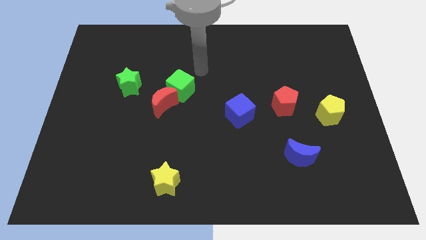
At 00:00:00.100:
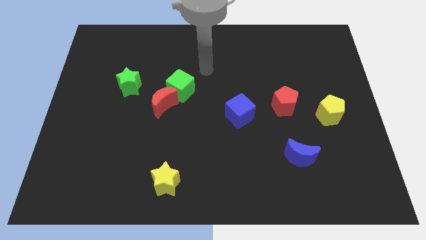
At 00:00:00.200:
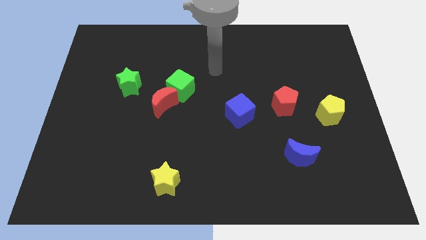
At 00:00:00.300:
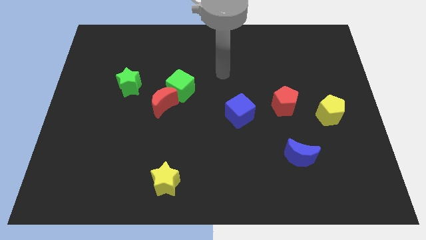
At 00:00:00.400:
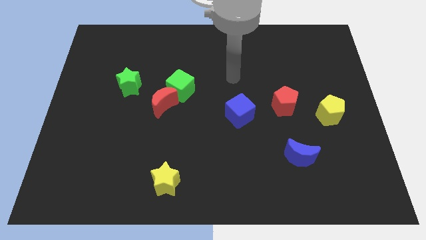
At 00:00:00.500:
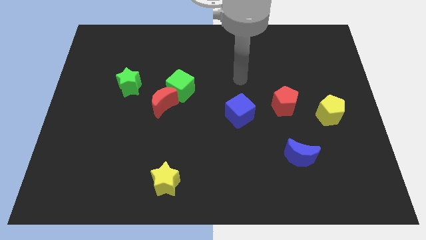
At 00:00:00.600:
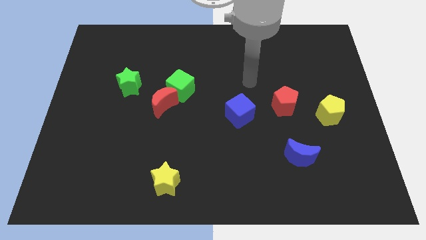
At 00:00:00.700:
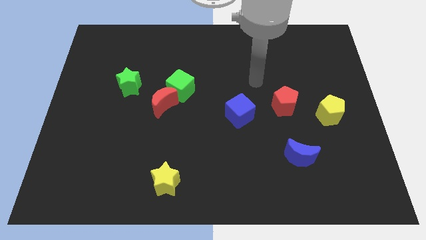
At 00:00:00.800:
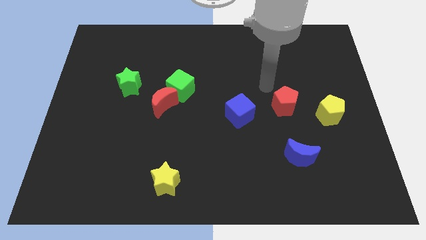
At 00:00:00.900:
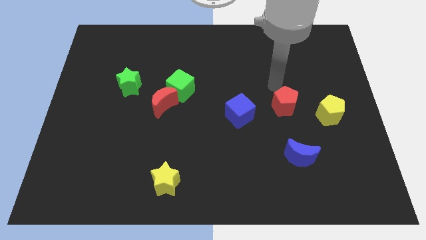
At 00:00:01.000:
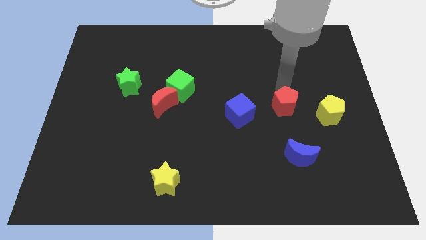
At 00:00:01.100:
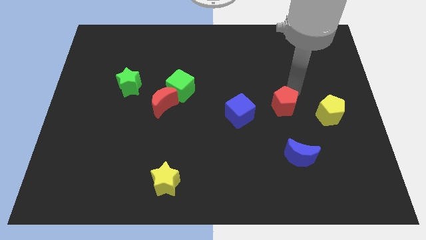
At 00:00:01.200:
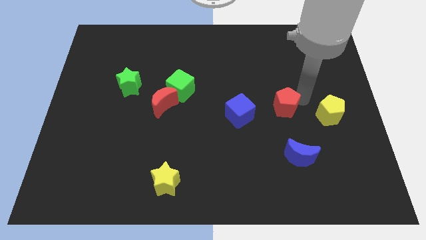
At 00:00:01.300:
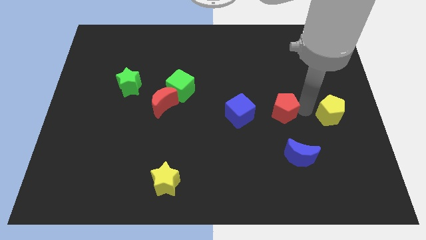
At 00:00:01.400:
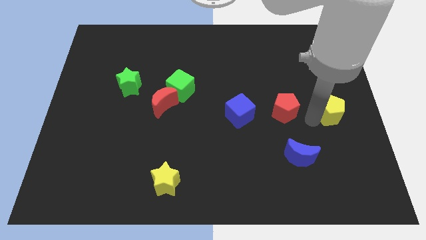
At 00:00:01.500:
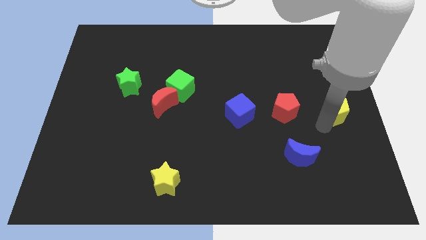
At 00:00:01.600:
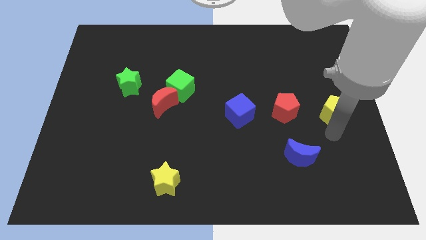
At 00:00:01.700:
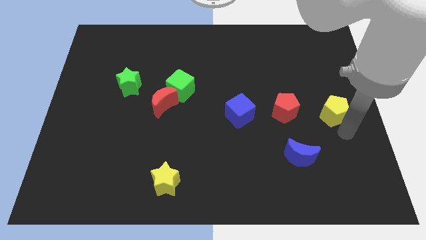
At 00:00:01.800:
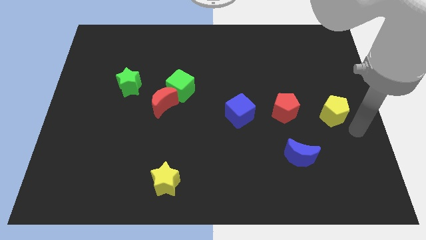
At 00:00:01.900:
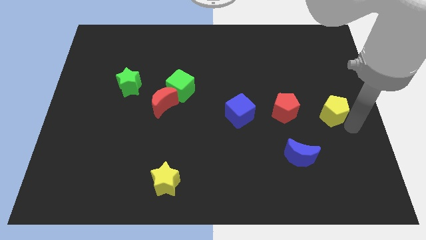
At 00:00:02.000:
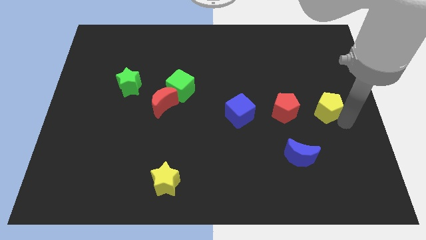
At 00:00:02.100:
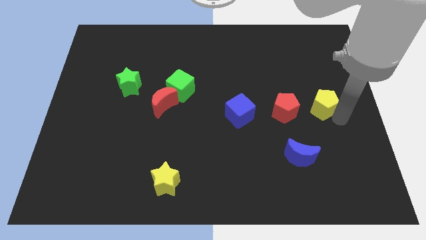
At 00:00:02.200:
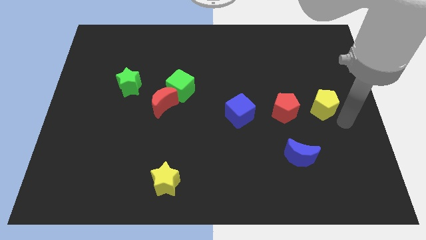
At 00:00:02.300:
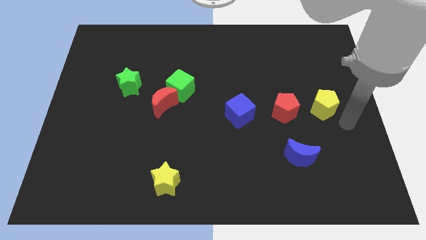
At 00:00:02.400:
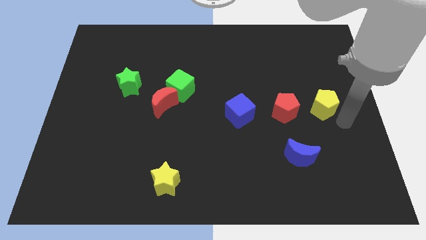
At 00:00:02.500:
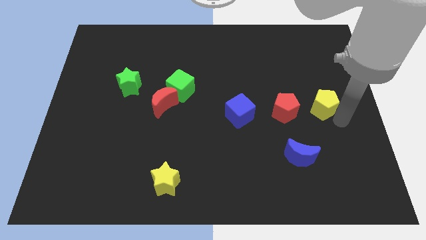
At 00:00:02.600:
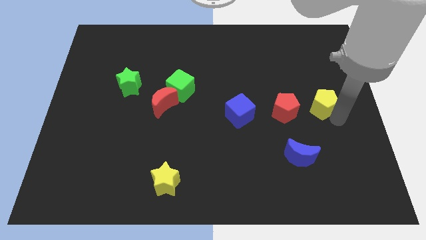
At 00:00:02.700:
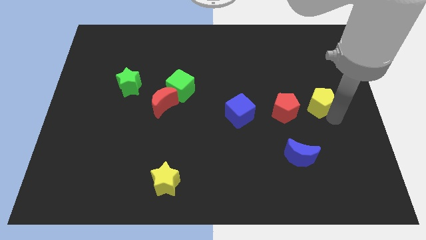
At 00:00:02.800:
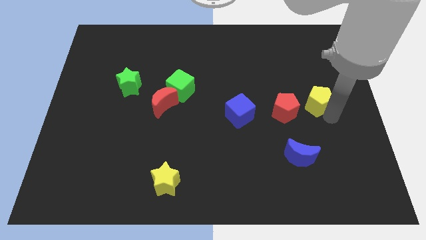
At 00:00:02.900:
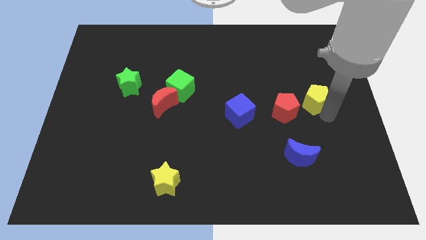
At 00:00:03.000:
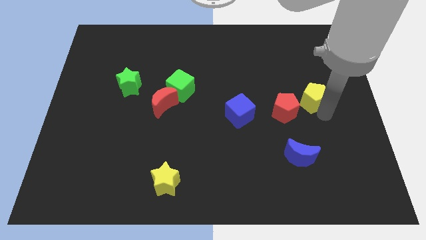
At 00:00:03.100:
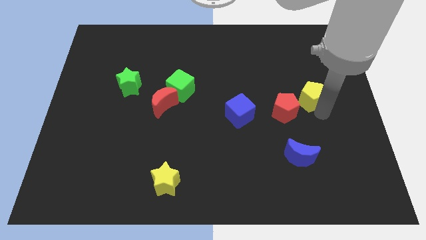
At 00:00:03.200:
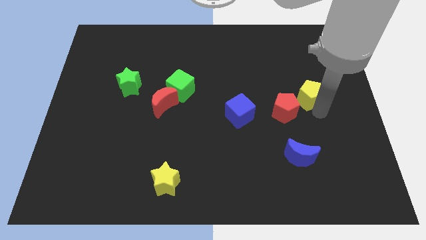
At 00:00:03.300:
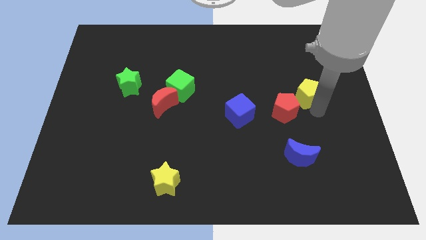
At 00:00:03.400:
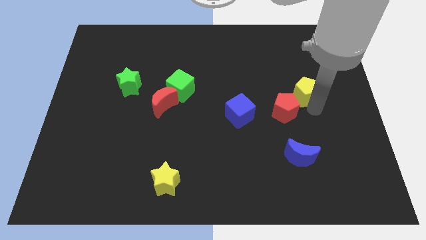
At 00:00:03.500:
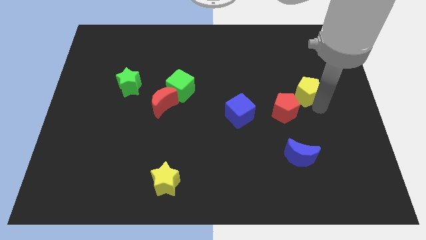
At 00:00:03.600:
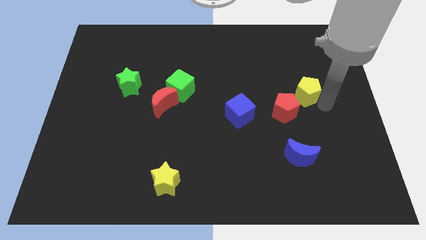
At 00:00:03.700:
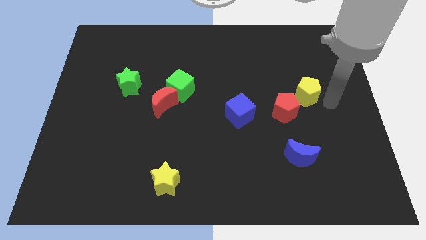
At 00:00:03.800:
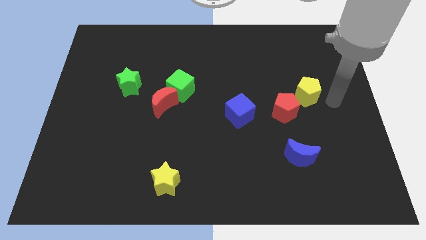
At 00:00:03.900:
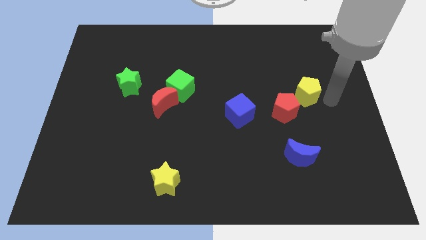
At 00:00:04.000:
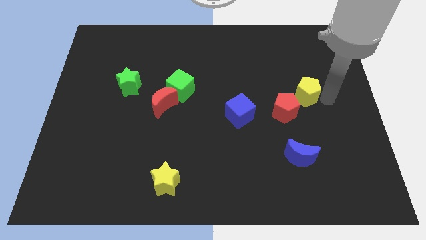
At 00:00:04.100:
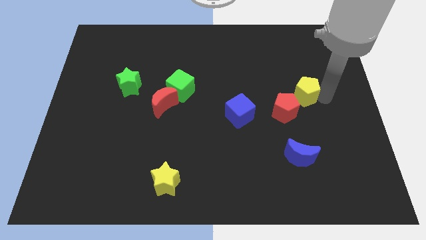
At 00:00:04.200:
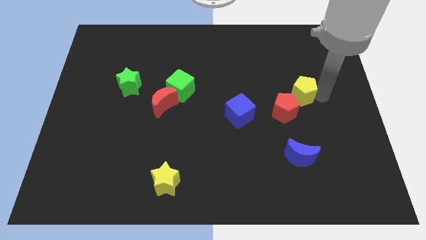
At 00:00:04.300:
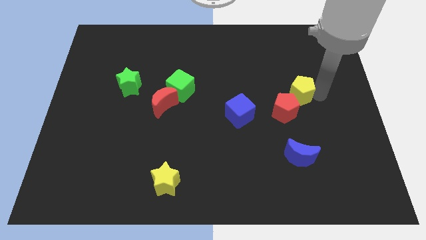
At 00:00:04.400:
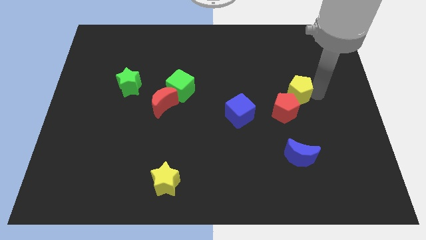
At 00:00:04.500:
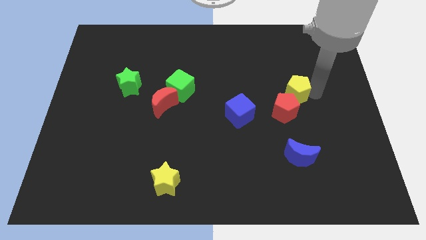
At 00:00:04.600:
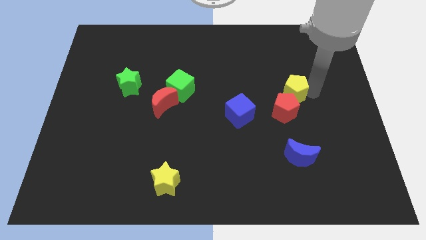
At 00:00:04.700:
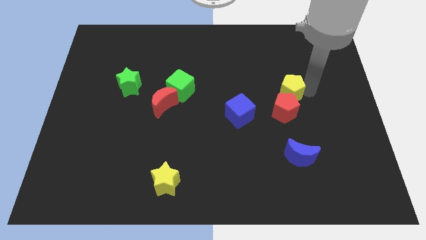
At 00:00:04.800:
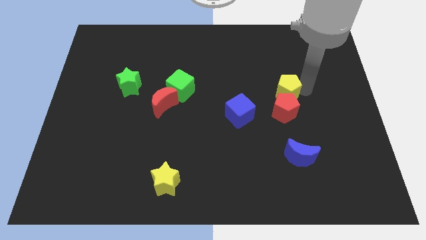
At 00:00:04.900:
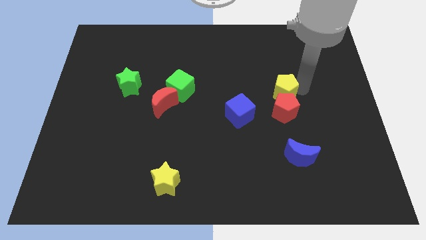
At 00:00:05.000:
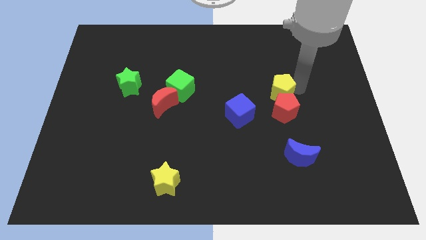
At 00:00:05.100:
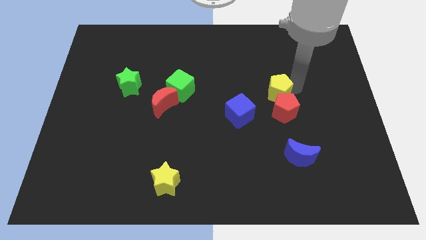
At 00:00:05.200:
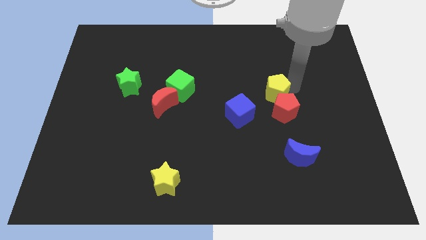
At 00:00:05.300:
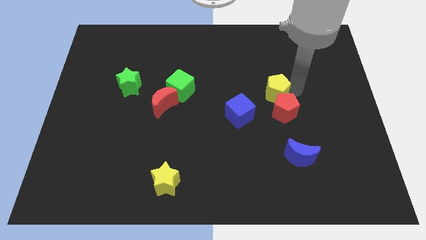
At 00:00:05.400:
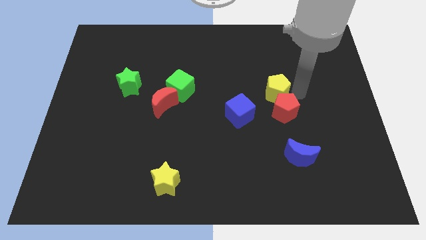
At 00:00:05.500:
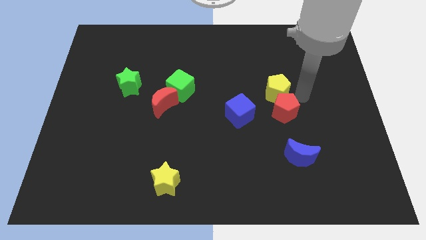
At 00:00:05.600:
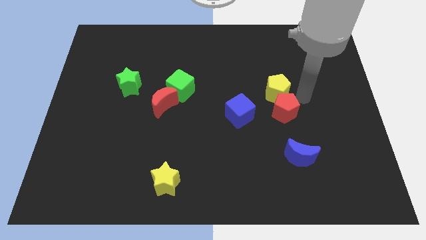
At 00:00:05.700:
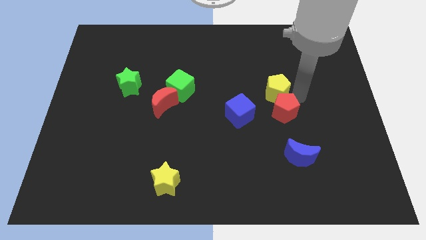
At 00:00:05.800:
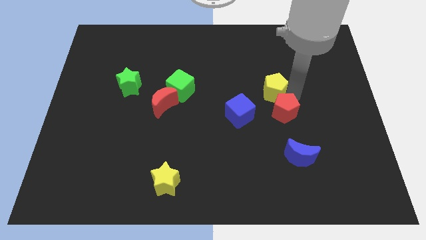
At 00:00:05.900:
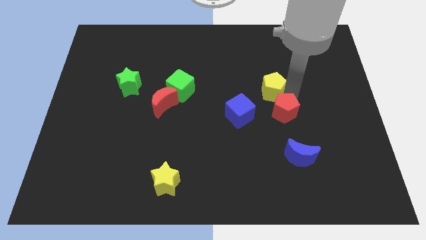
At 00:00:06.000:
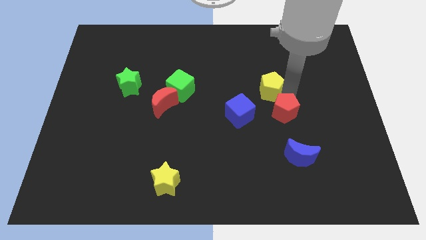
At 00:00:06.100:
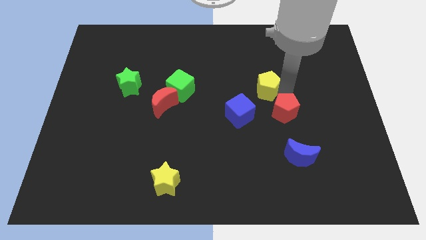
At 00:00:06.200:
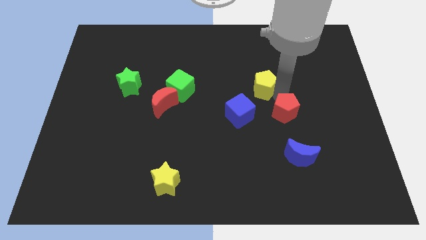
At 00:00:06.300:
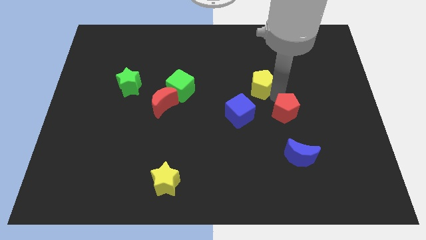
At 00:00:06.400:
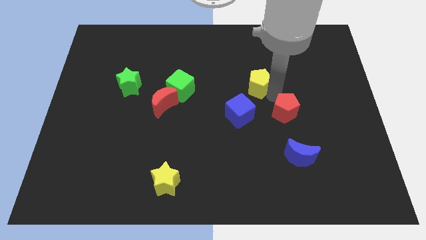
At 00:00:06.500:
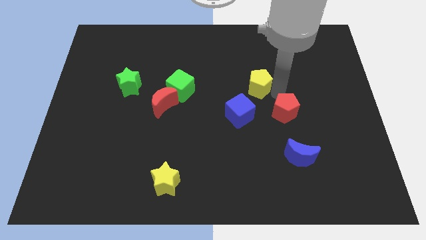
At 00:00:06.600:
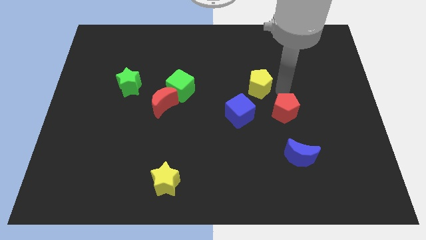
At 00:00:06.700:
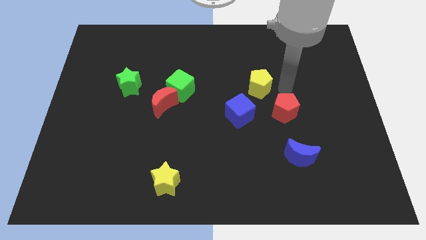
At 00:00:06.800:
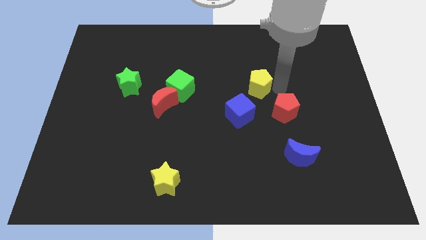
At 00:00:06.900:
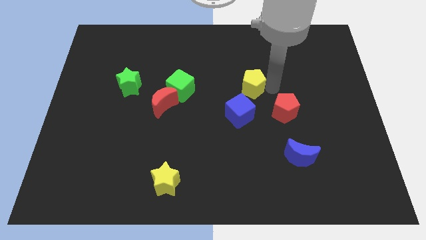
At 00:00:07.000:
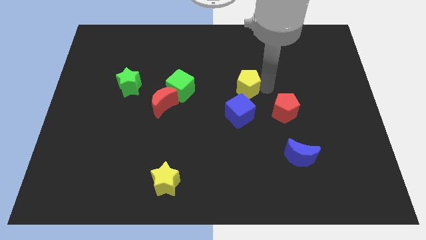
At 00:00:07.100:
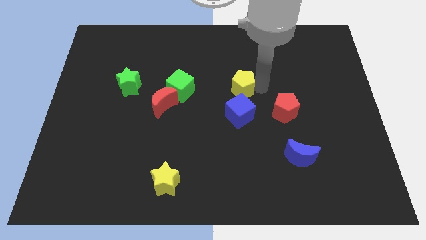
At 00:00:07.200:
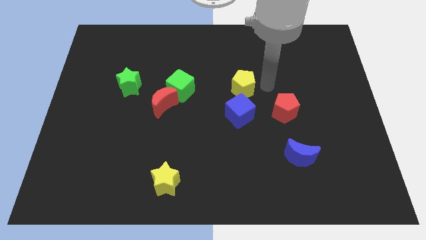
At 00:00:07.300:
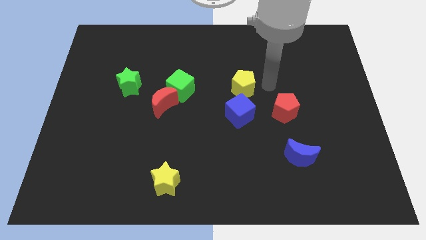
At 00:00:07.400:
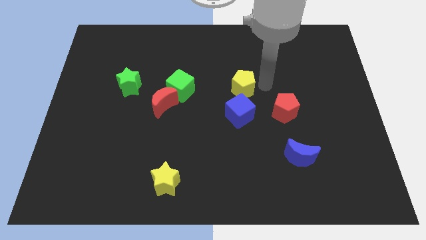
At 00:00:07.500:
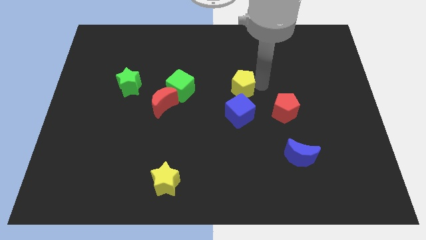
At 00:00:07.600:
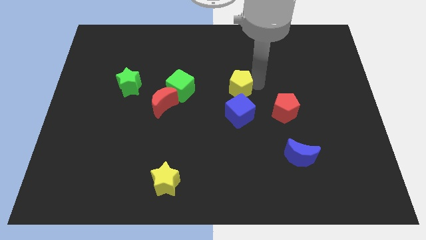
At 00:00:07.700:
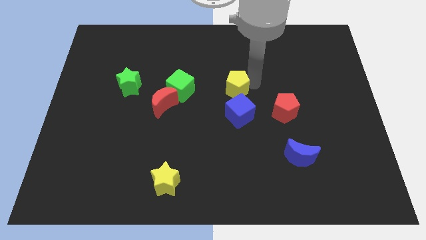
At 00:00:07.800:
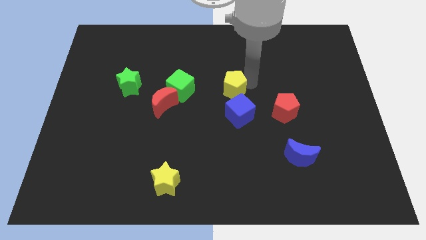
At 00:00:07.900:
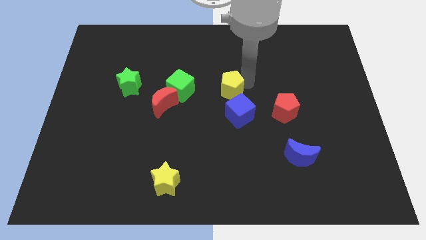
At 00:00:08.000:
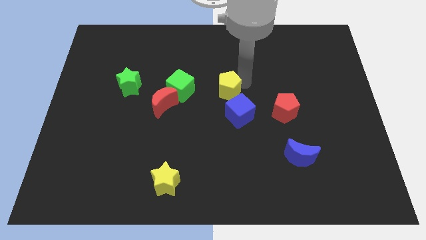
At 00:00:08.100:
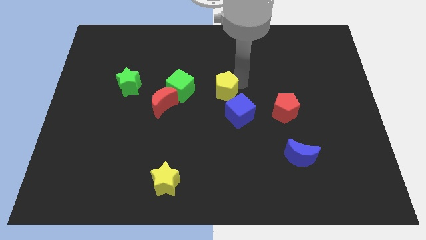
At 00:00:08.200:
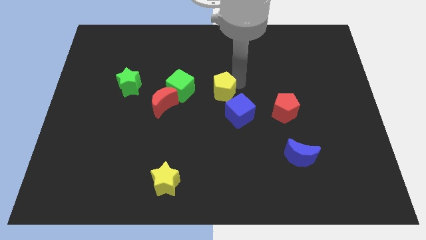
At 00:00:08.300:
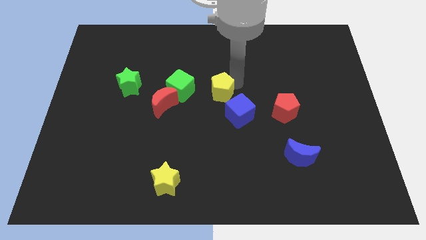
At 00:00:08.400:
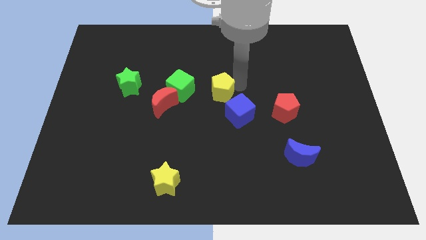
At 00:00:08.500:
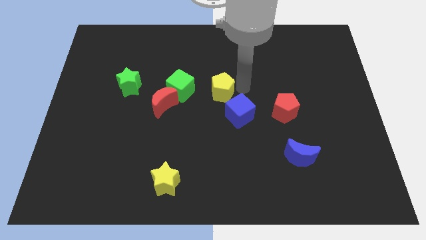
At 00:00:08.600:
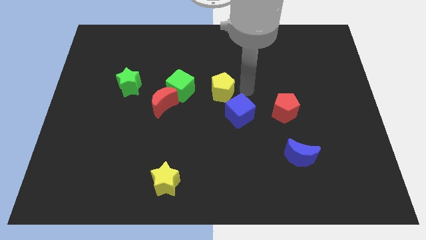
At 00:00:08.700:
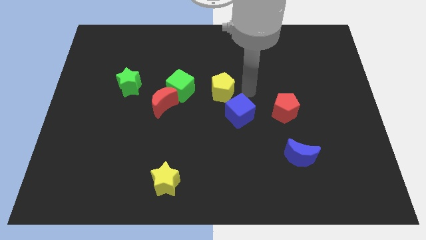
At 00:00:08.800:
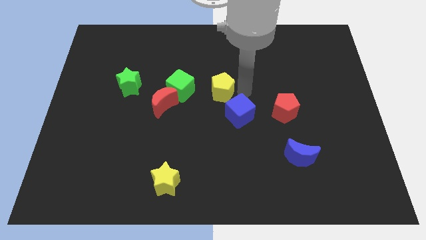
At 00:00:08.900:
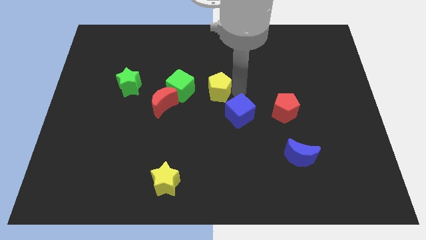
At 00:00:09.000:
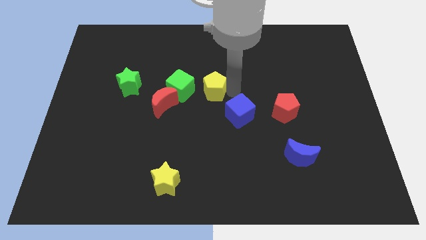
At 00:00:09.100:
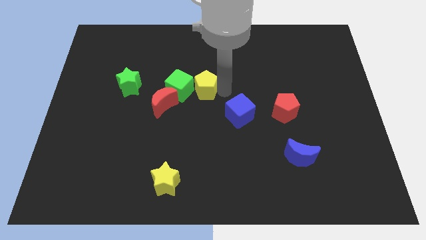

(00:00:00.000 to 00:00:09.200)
put the yellow pentagon next to the green cube
